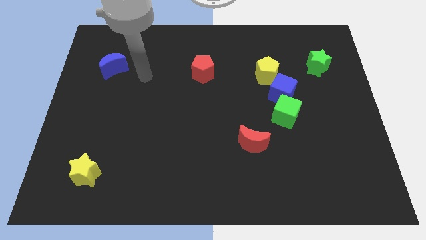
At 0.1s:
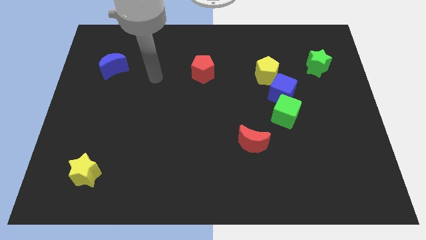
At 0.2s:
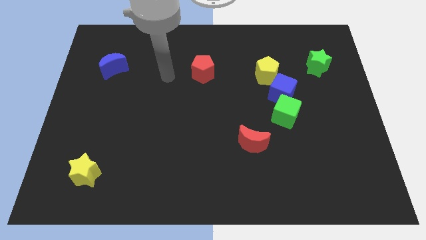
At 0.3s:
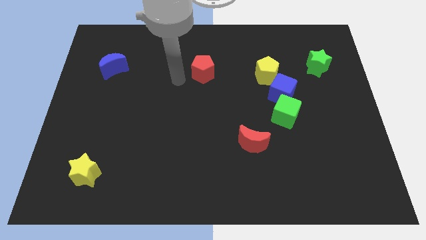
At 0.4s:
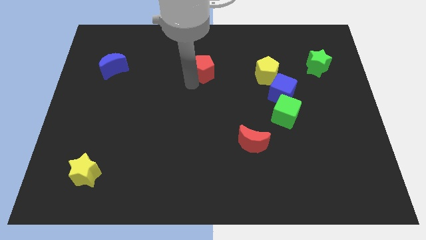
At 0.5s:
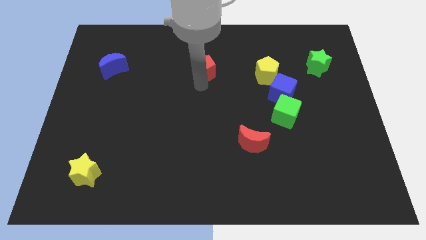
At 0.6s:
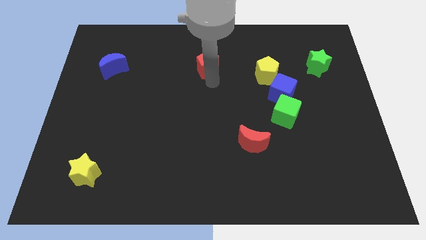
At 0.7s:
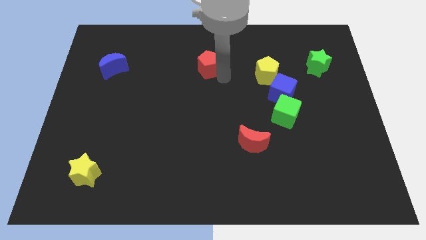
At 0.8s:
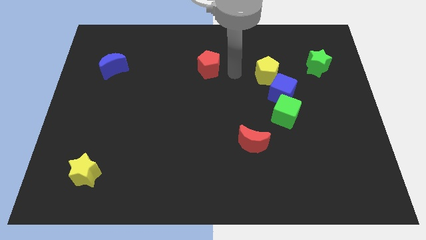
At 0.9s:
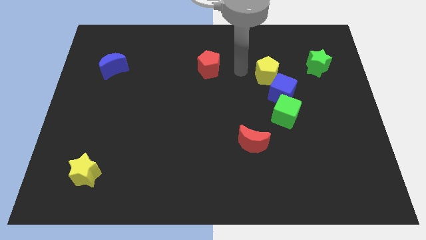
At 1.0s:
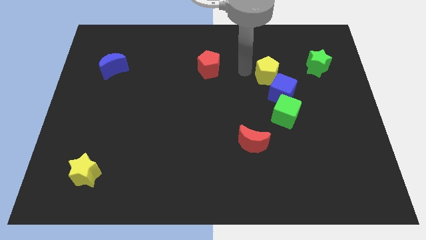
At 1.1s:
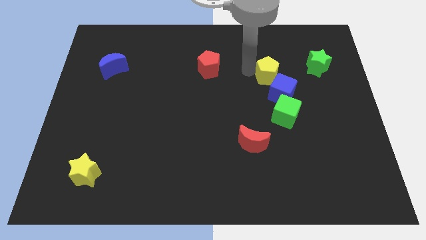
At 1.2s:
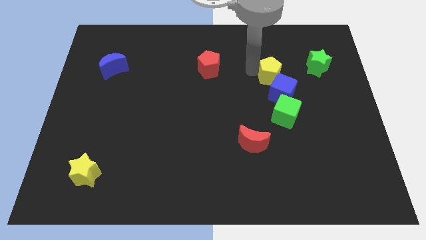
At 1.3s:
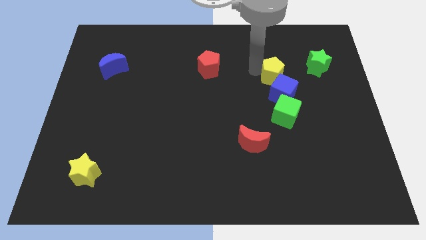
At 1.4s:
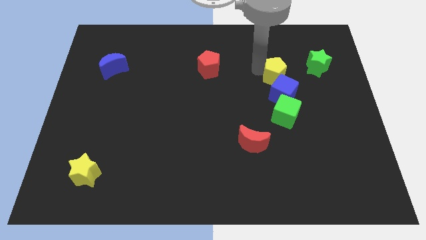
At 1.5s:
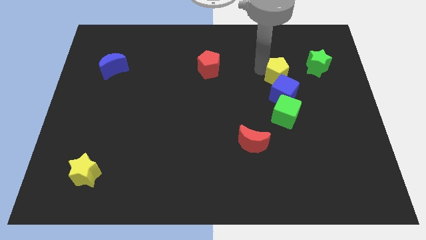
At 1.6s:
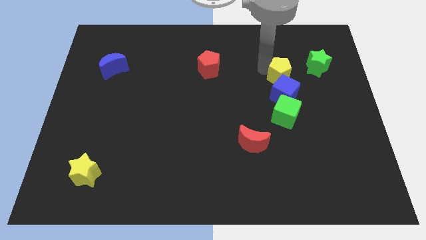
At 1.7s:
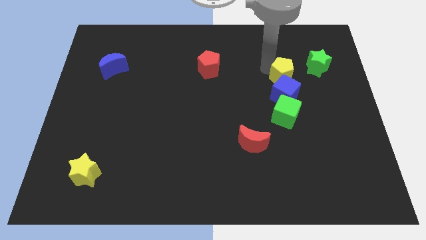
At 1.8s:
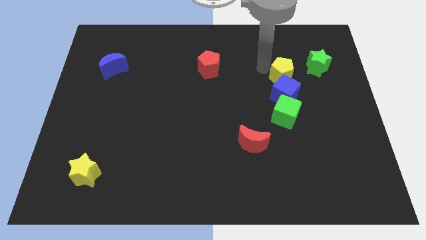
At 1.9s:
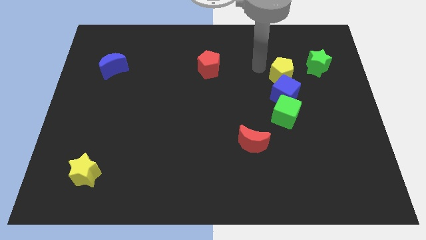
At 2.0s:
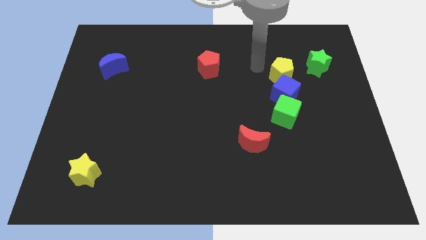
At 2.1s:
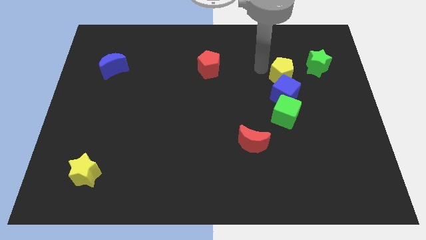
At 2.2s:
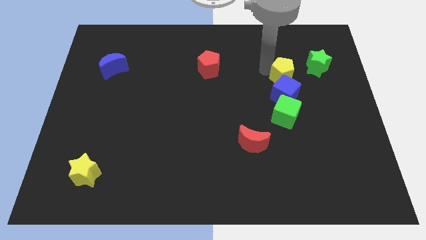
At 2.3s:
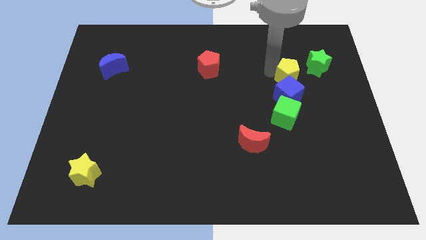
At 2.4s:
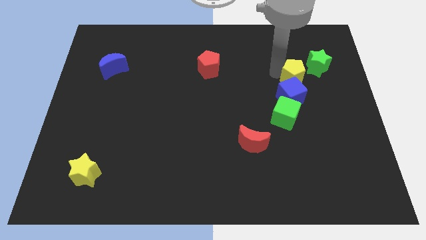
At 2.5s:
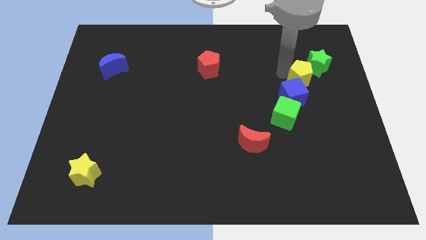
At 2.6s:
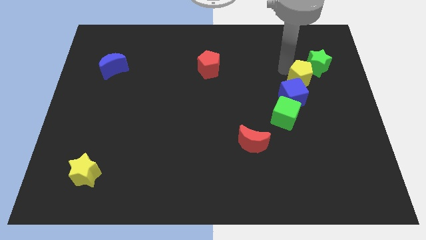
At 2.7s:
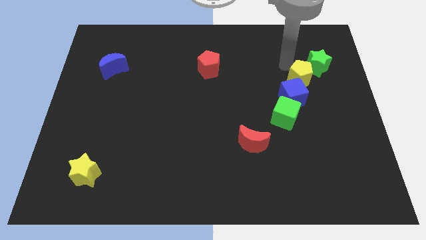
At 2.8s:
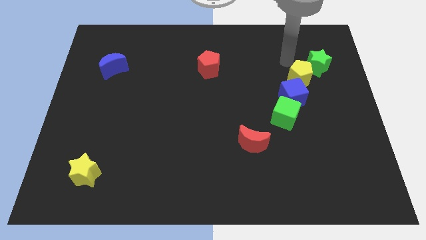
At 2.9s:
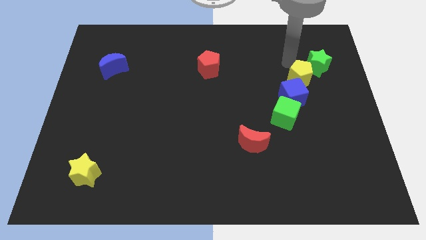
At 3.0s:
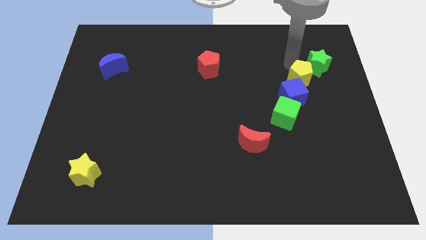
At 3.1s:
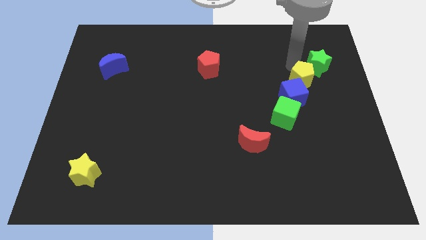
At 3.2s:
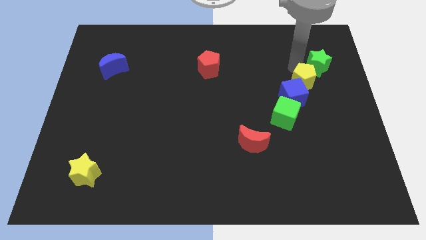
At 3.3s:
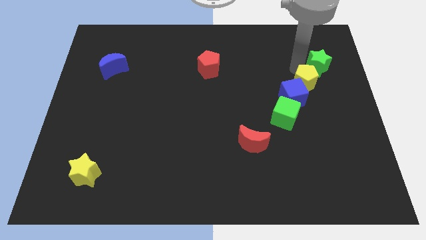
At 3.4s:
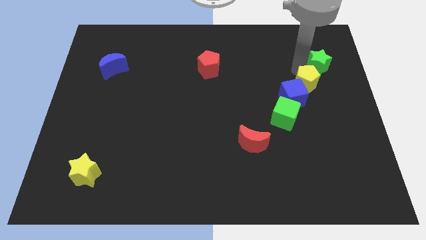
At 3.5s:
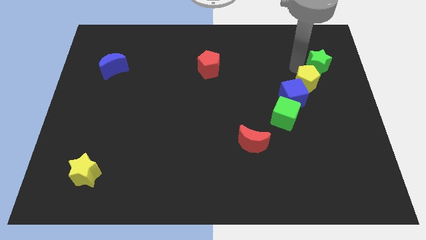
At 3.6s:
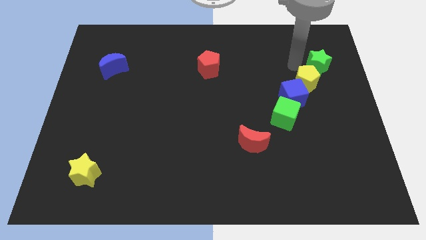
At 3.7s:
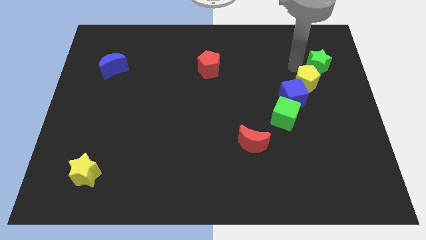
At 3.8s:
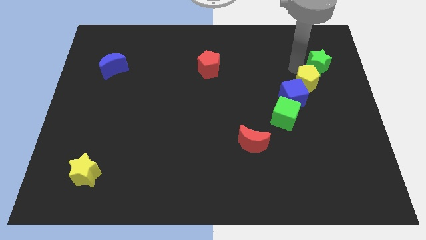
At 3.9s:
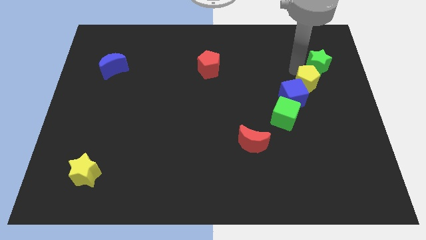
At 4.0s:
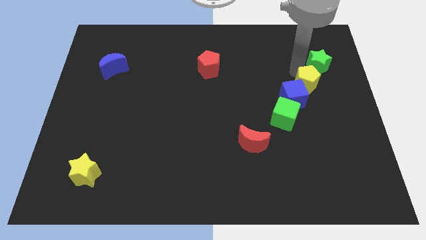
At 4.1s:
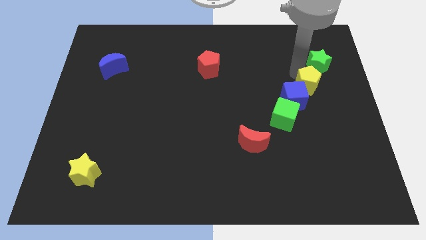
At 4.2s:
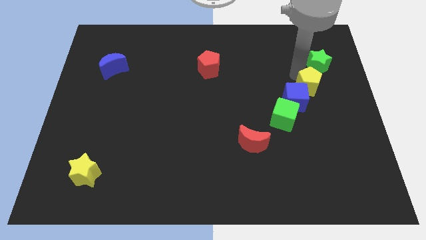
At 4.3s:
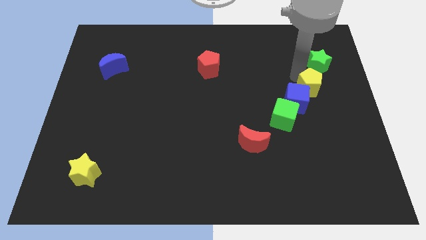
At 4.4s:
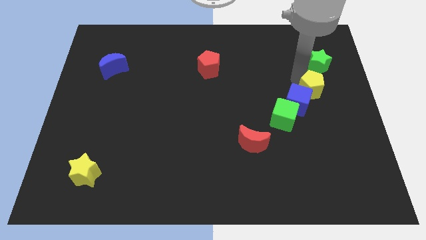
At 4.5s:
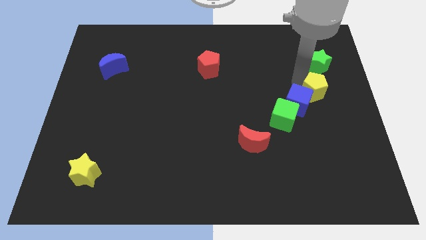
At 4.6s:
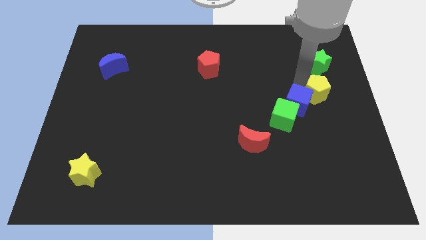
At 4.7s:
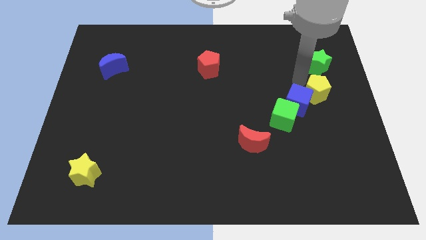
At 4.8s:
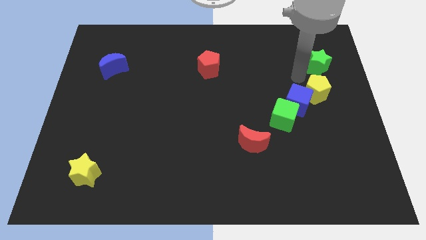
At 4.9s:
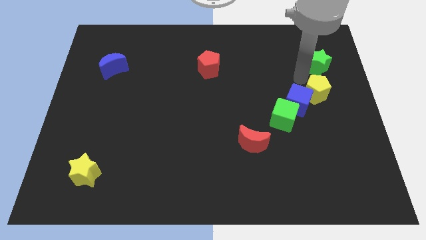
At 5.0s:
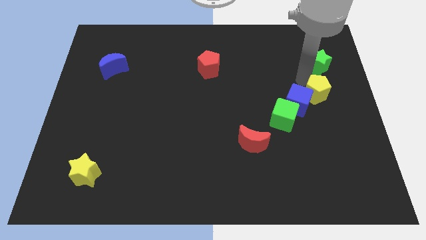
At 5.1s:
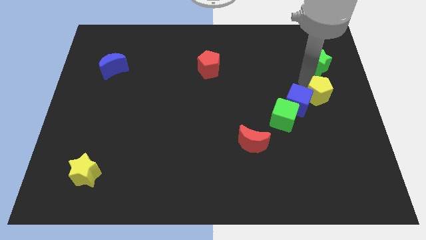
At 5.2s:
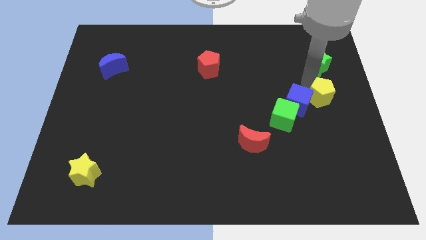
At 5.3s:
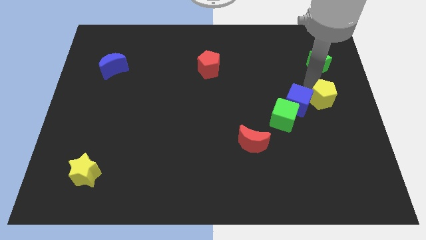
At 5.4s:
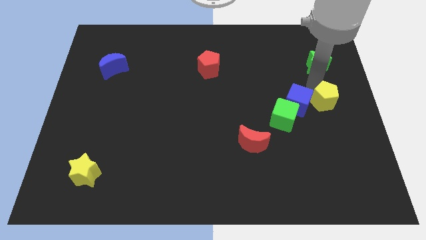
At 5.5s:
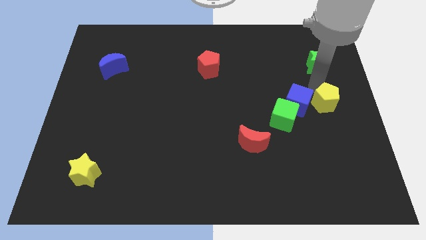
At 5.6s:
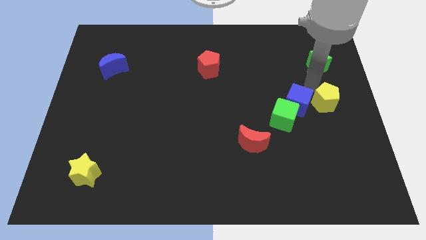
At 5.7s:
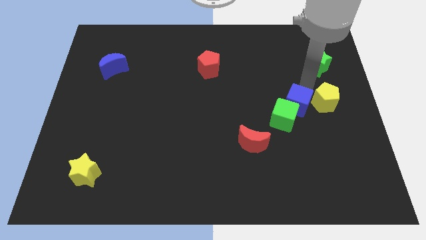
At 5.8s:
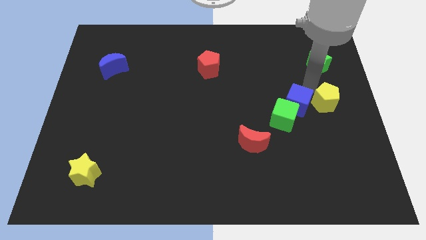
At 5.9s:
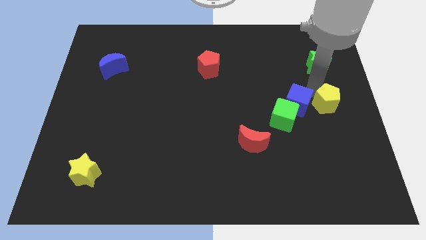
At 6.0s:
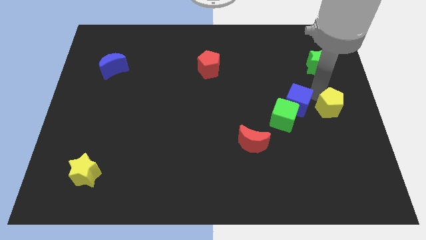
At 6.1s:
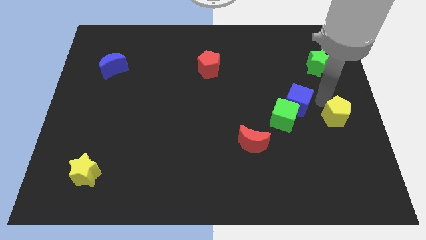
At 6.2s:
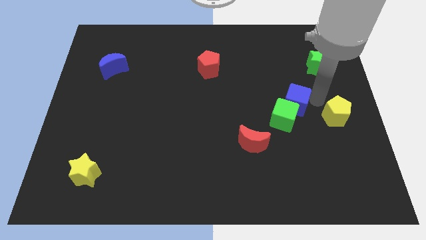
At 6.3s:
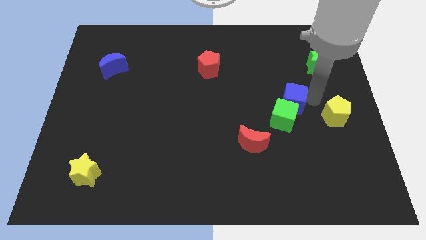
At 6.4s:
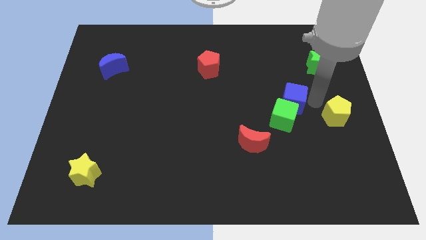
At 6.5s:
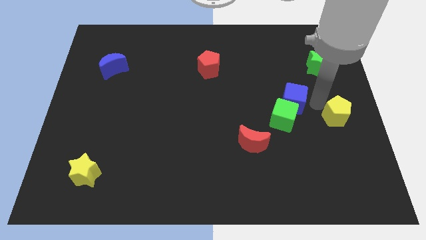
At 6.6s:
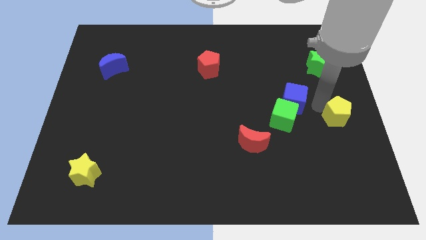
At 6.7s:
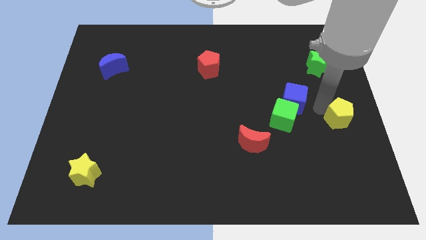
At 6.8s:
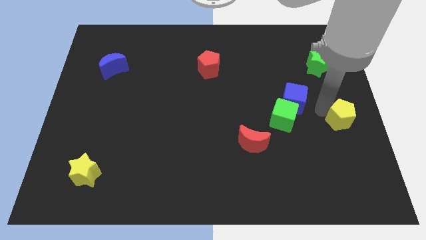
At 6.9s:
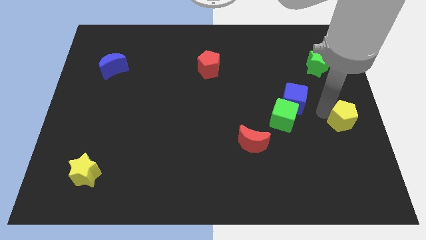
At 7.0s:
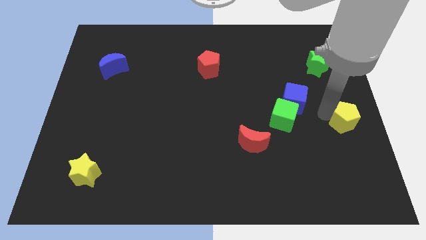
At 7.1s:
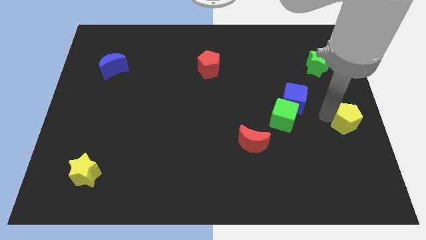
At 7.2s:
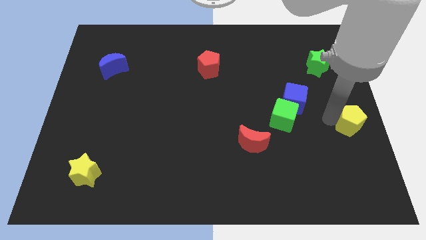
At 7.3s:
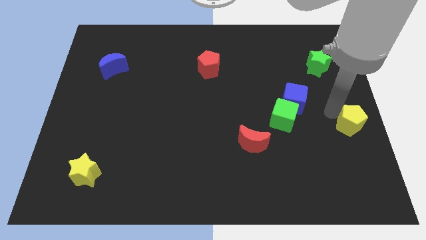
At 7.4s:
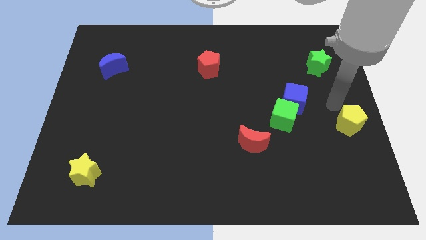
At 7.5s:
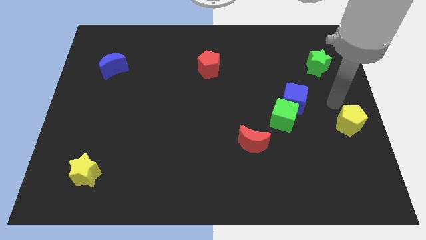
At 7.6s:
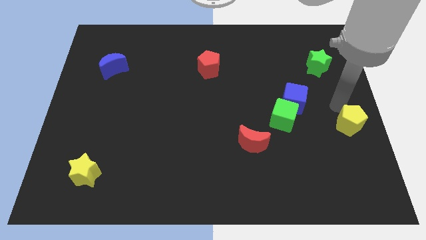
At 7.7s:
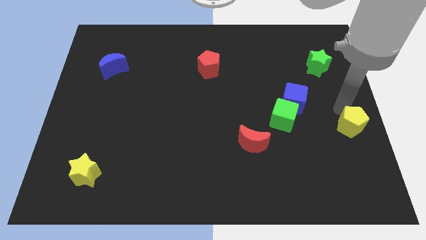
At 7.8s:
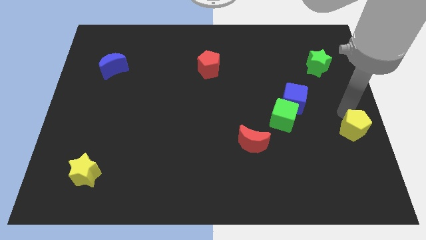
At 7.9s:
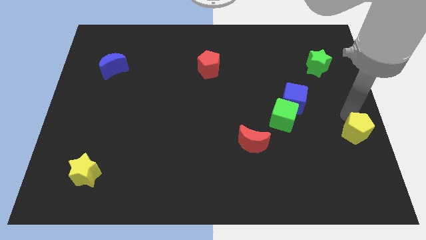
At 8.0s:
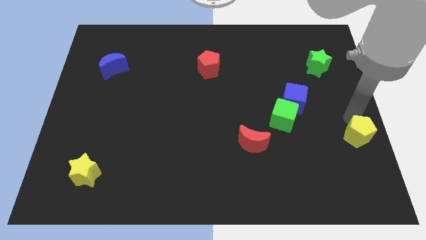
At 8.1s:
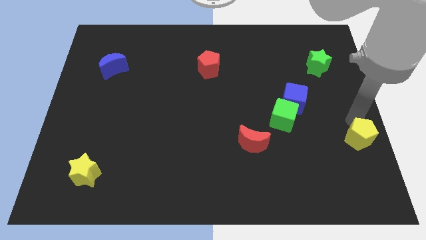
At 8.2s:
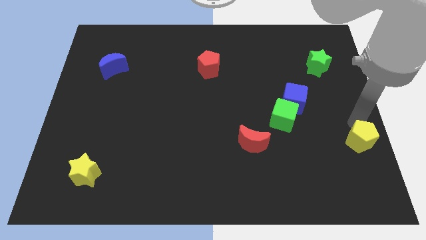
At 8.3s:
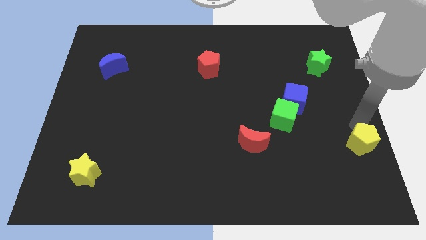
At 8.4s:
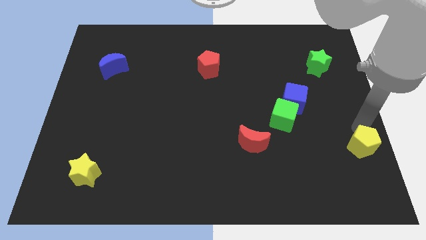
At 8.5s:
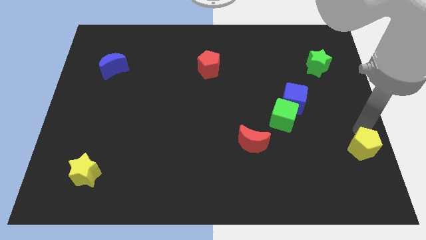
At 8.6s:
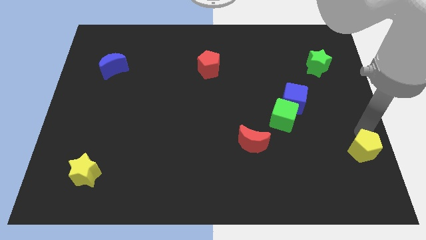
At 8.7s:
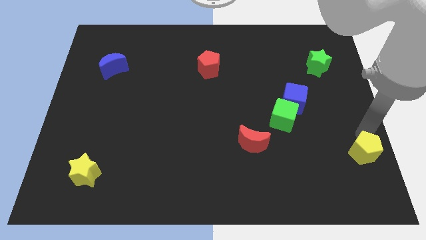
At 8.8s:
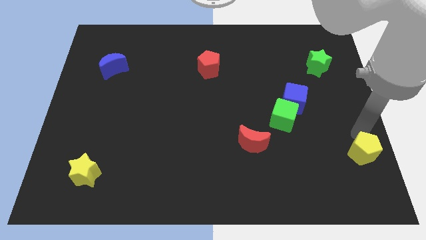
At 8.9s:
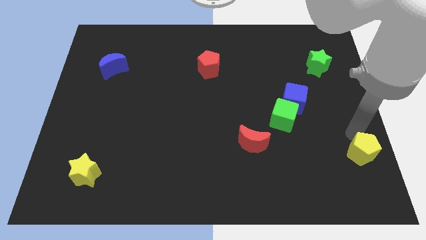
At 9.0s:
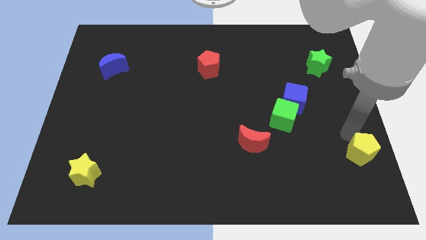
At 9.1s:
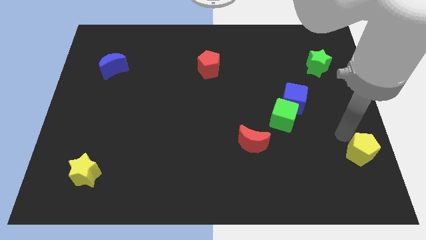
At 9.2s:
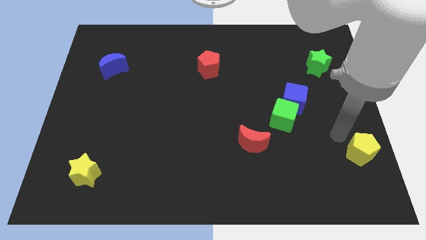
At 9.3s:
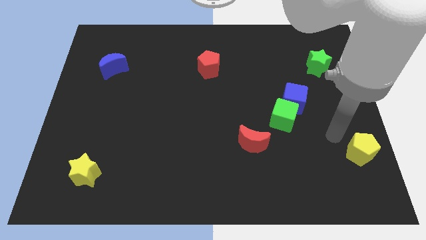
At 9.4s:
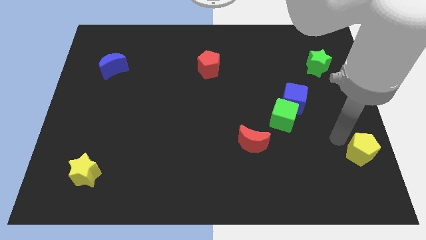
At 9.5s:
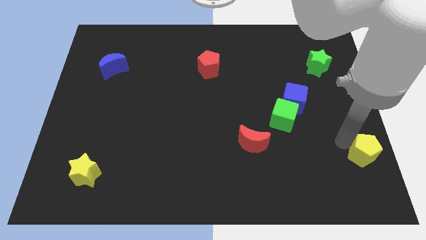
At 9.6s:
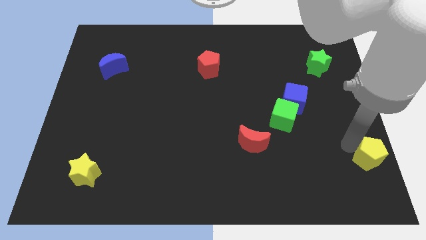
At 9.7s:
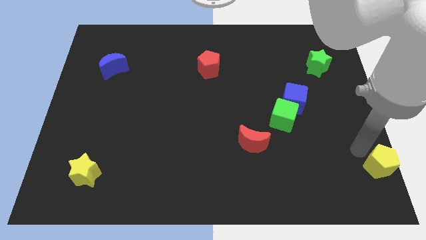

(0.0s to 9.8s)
move the yellow pentagon to the bottom right corner
